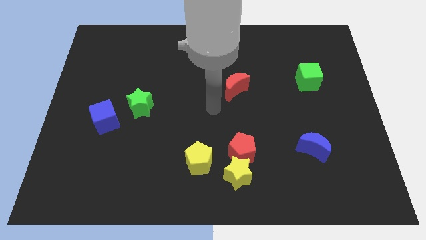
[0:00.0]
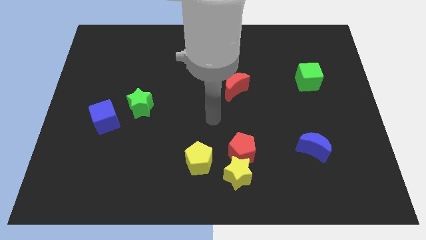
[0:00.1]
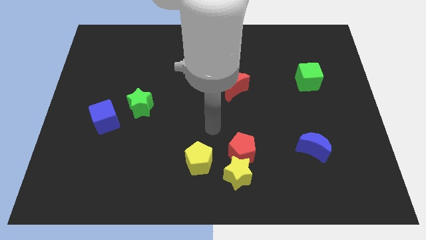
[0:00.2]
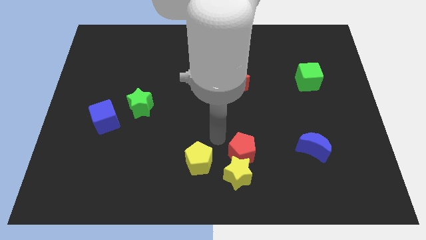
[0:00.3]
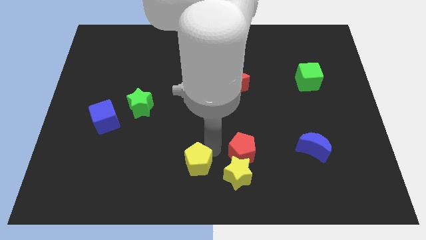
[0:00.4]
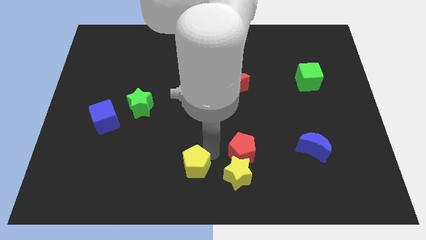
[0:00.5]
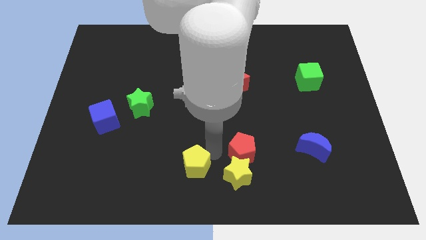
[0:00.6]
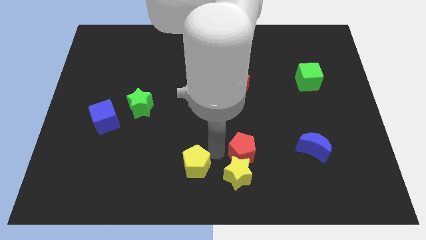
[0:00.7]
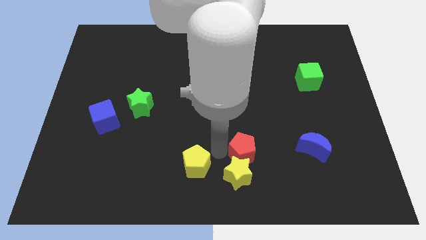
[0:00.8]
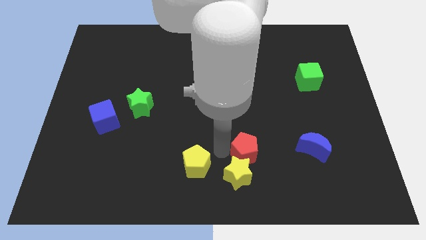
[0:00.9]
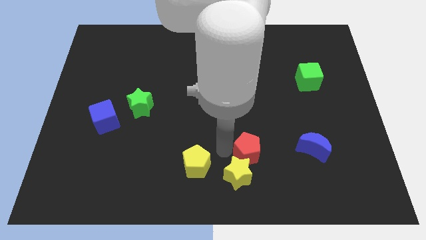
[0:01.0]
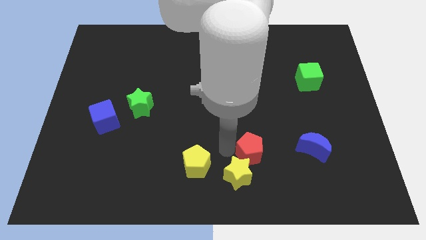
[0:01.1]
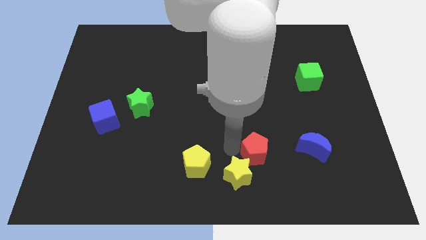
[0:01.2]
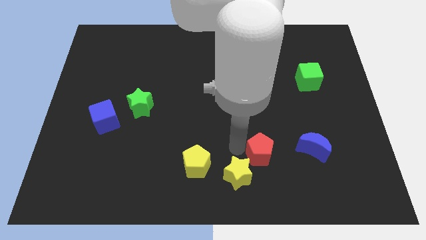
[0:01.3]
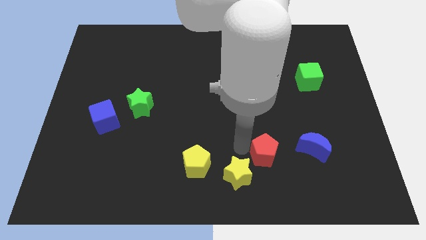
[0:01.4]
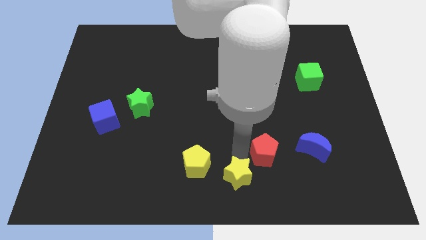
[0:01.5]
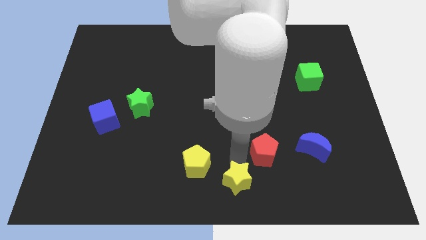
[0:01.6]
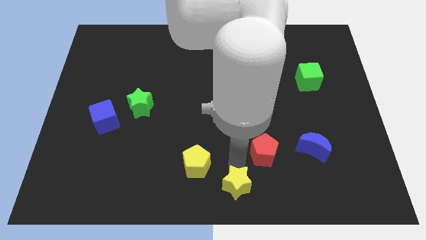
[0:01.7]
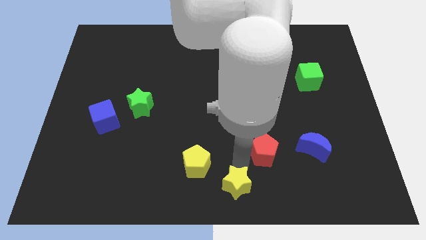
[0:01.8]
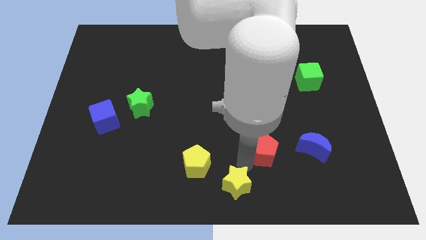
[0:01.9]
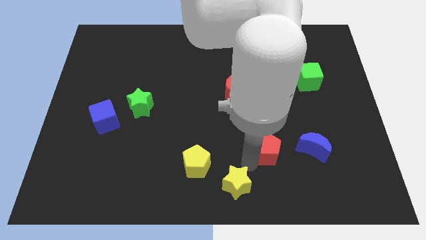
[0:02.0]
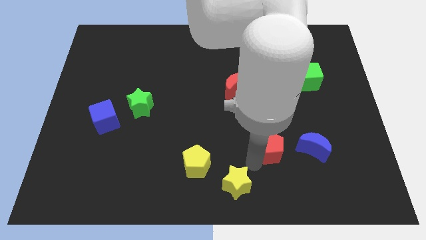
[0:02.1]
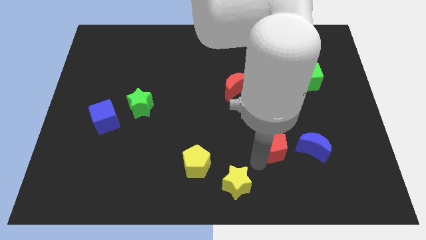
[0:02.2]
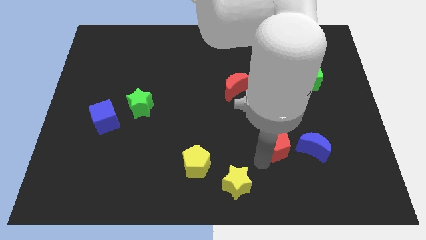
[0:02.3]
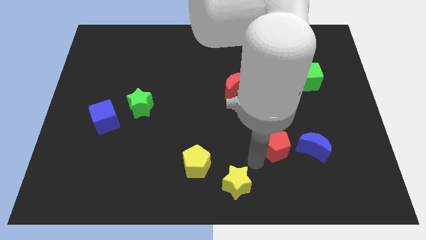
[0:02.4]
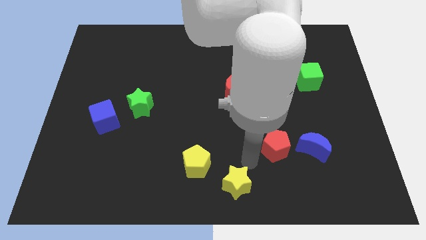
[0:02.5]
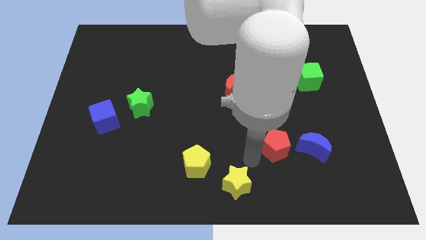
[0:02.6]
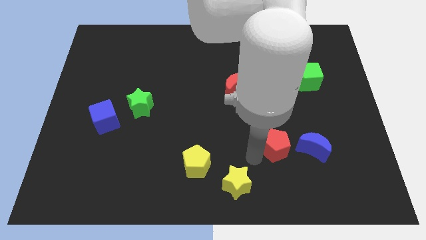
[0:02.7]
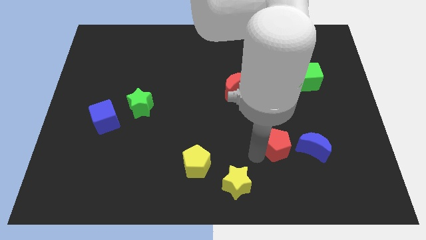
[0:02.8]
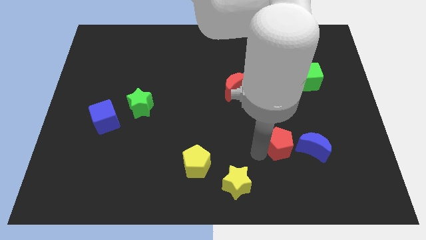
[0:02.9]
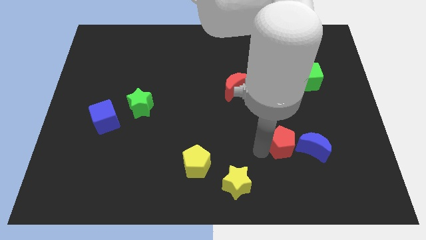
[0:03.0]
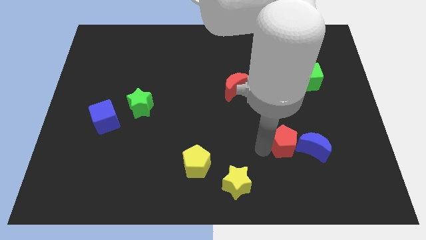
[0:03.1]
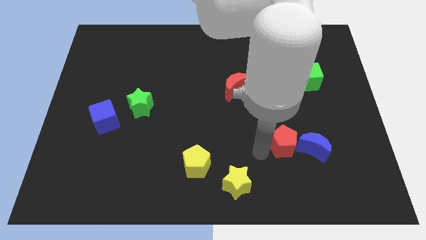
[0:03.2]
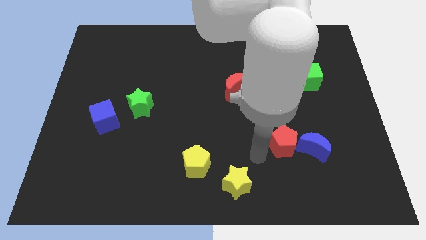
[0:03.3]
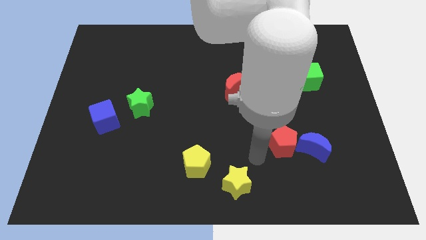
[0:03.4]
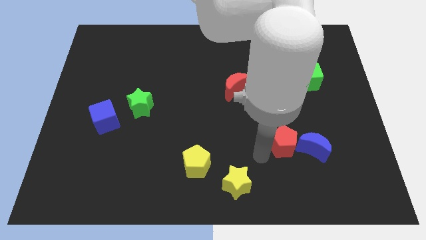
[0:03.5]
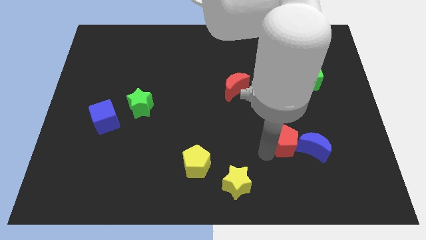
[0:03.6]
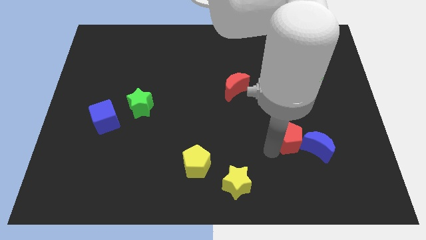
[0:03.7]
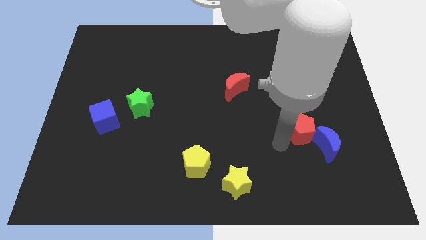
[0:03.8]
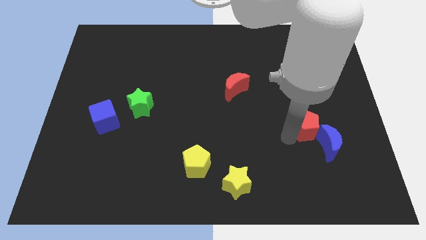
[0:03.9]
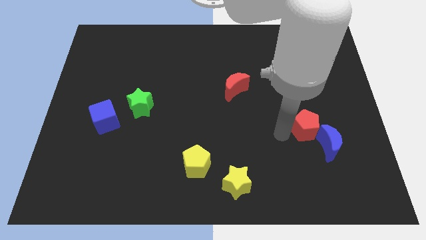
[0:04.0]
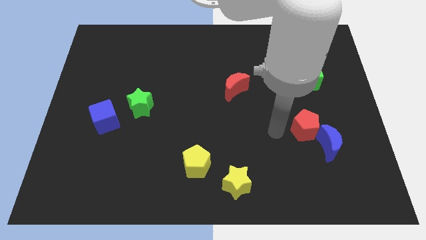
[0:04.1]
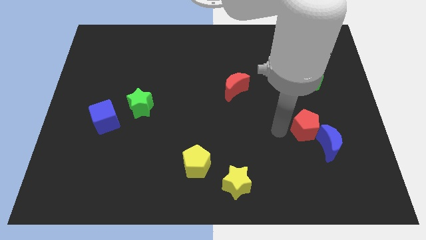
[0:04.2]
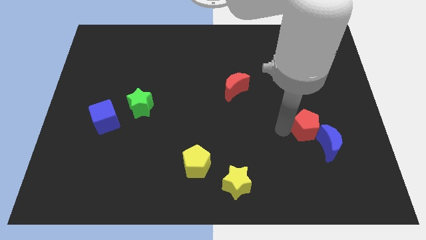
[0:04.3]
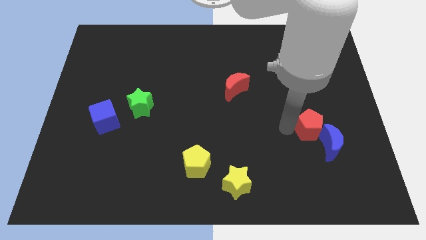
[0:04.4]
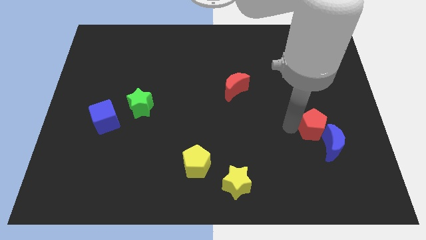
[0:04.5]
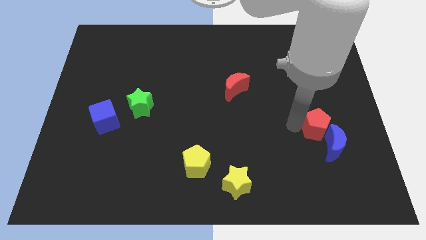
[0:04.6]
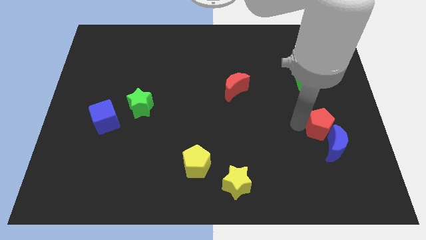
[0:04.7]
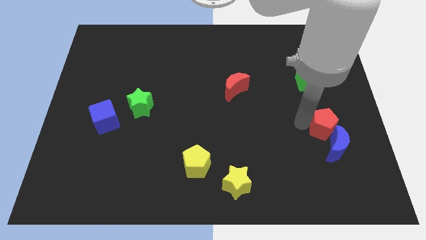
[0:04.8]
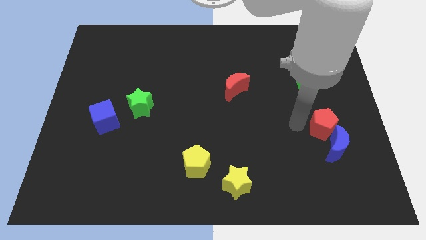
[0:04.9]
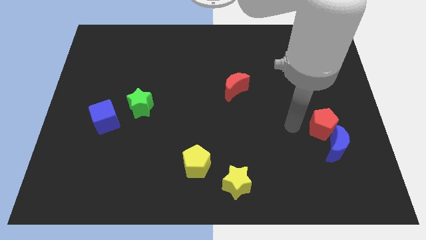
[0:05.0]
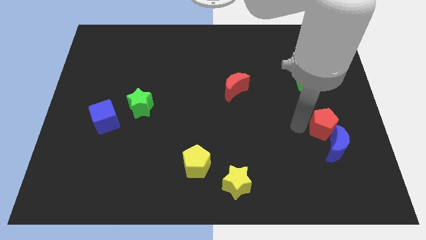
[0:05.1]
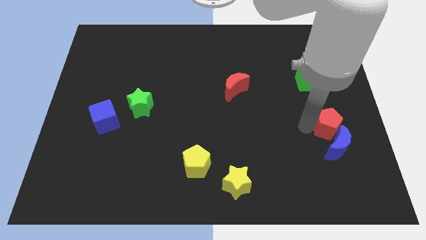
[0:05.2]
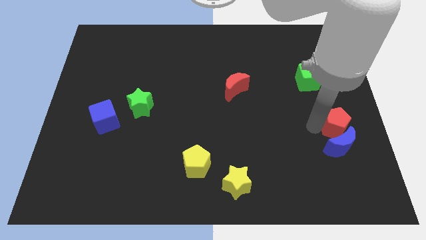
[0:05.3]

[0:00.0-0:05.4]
put the red pentagon diagonally up and to the right of the blue moon

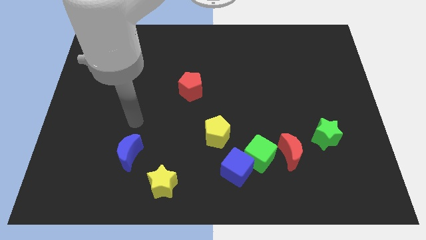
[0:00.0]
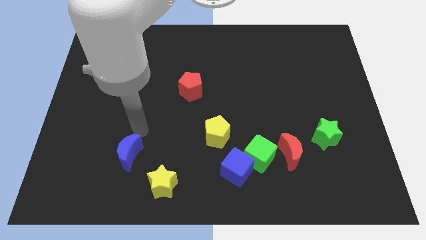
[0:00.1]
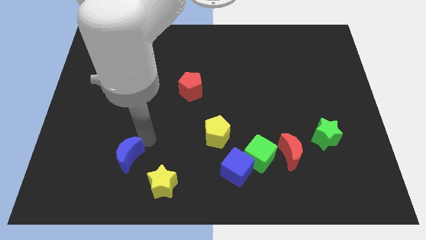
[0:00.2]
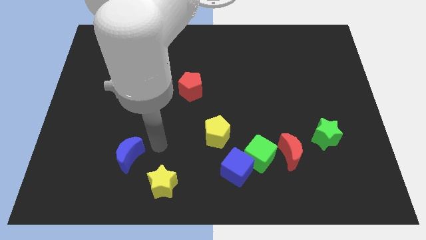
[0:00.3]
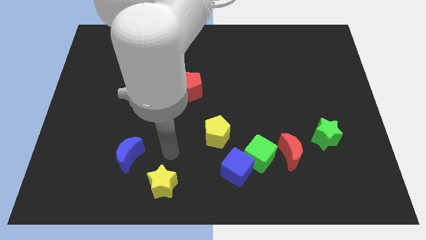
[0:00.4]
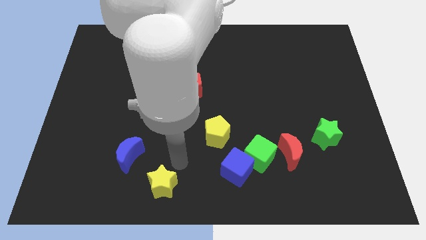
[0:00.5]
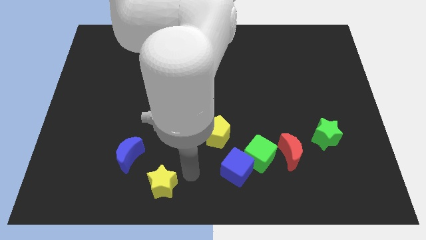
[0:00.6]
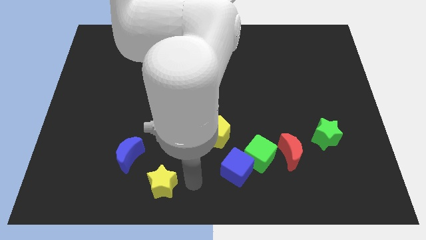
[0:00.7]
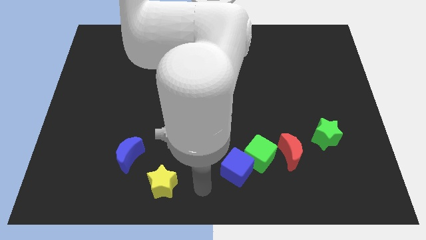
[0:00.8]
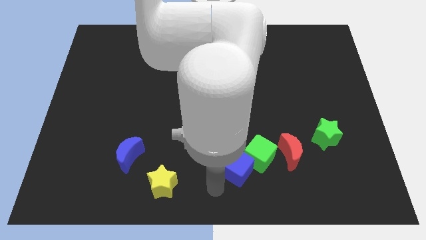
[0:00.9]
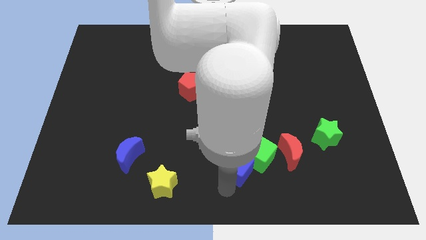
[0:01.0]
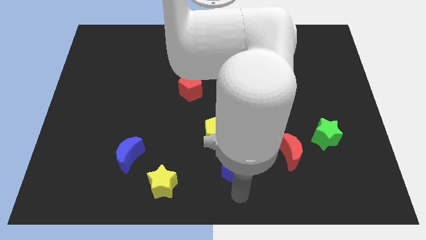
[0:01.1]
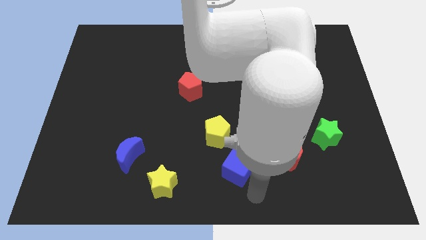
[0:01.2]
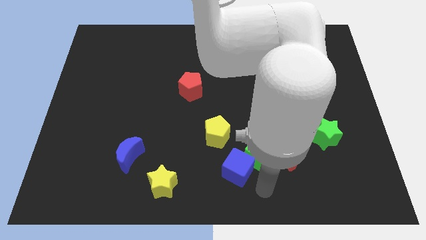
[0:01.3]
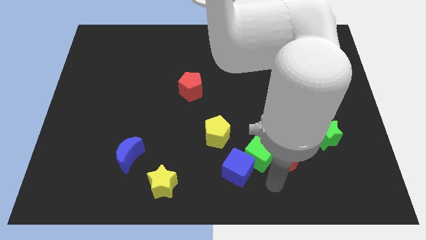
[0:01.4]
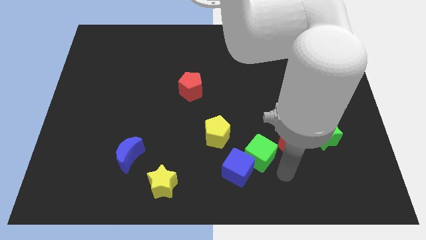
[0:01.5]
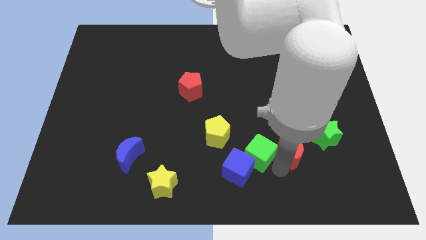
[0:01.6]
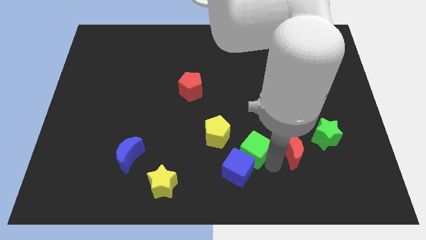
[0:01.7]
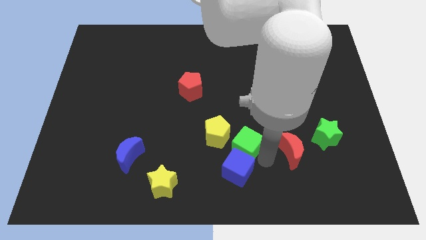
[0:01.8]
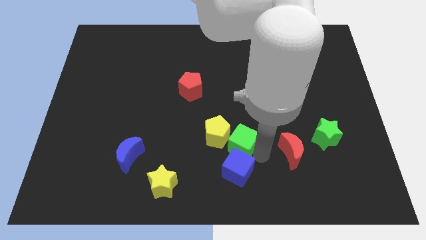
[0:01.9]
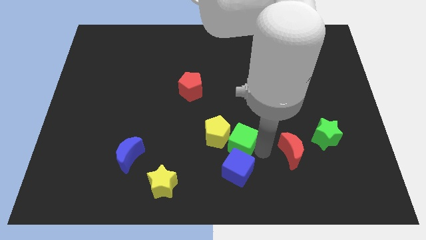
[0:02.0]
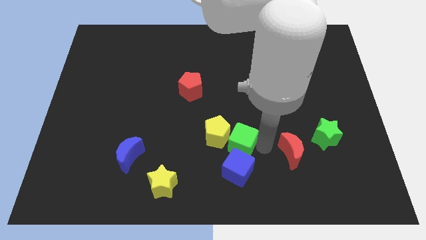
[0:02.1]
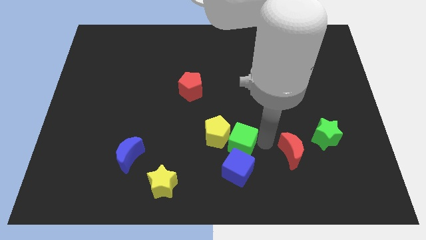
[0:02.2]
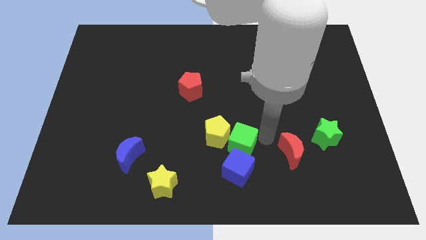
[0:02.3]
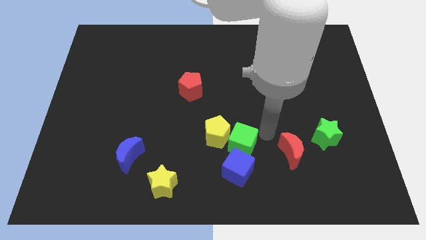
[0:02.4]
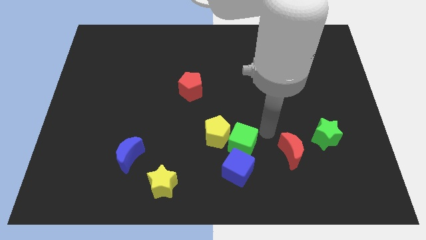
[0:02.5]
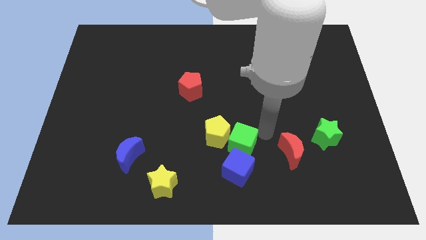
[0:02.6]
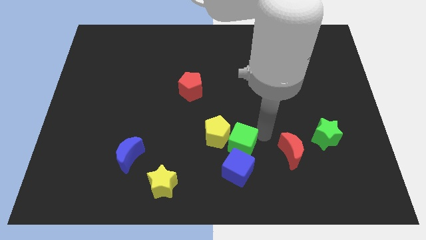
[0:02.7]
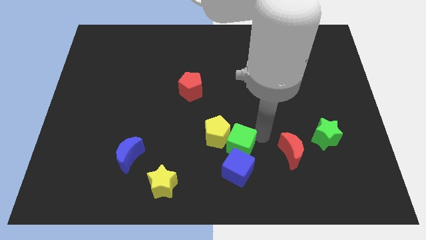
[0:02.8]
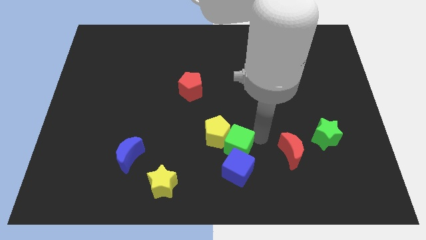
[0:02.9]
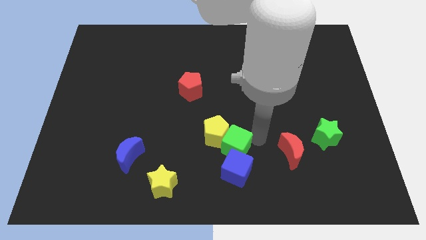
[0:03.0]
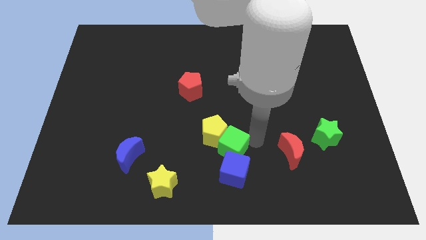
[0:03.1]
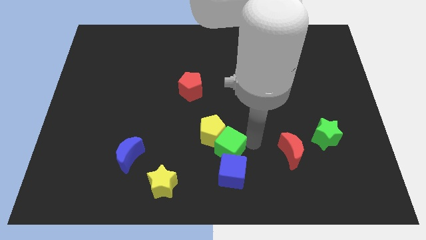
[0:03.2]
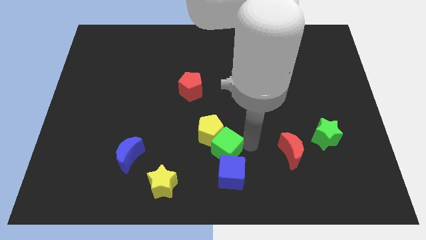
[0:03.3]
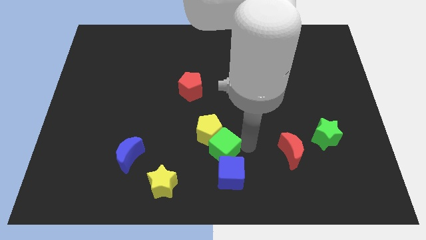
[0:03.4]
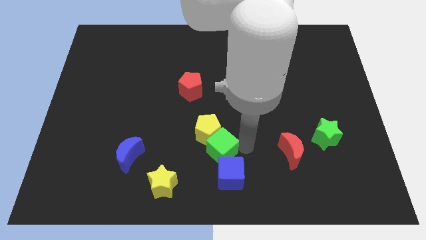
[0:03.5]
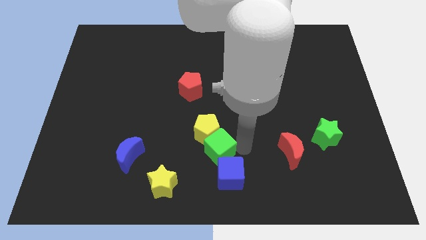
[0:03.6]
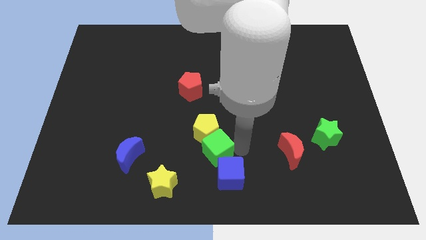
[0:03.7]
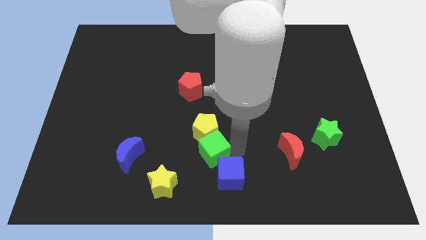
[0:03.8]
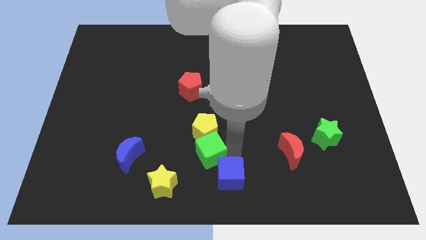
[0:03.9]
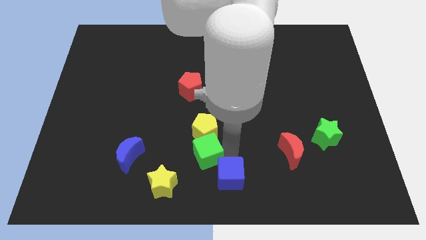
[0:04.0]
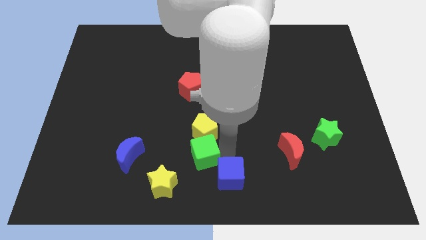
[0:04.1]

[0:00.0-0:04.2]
put the green cube right of the blue moon
